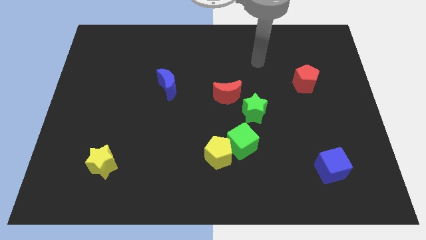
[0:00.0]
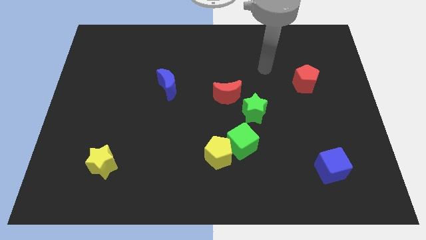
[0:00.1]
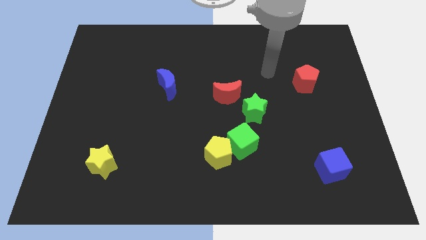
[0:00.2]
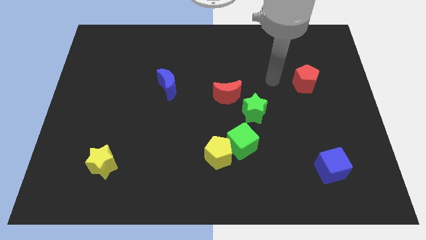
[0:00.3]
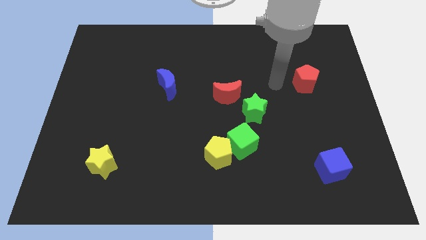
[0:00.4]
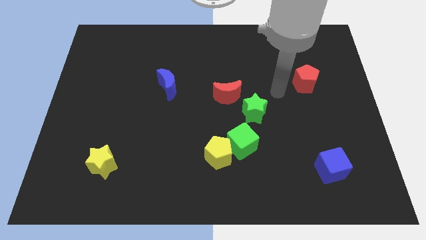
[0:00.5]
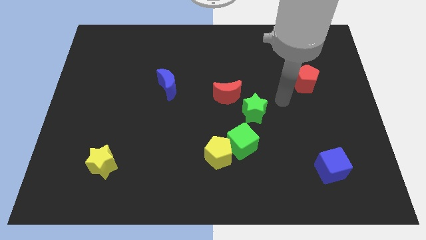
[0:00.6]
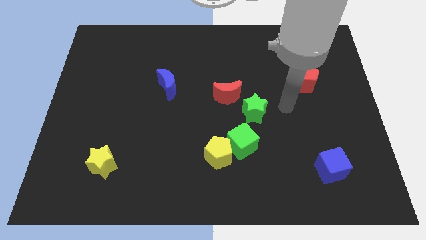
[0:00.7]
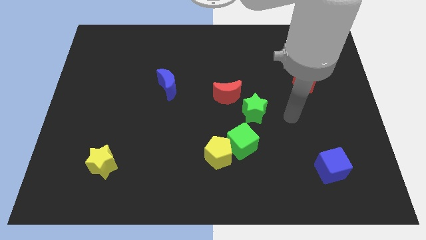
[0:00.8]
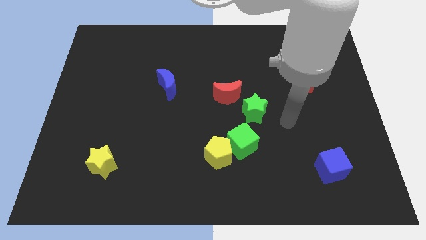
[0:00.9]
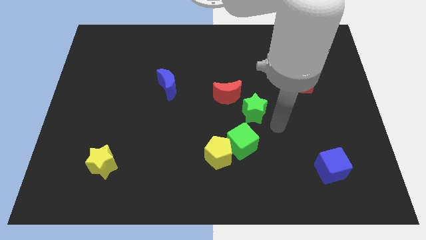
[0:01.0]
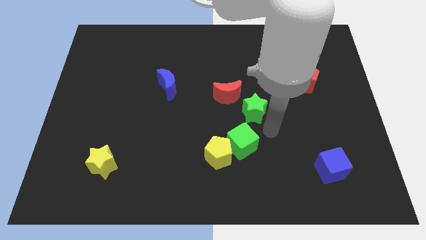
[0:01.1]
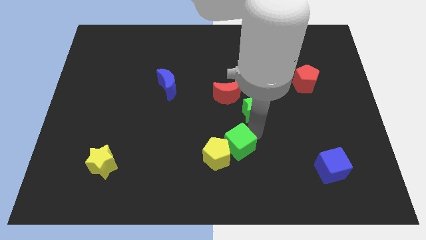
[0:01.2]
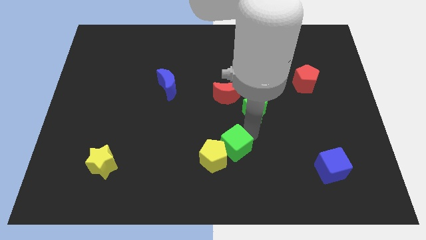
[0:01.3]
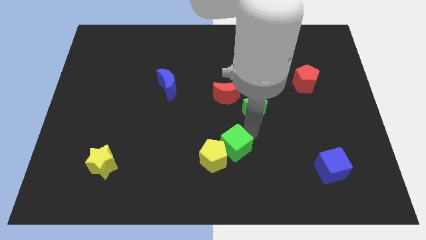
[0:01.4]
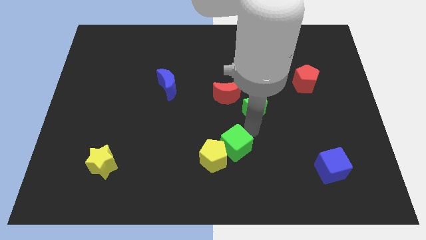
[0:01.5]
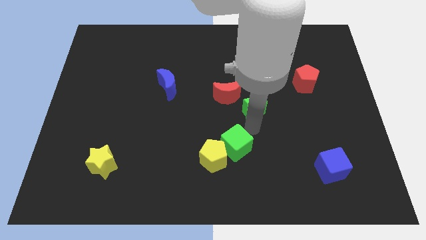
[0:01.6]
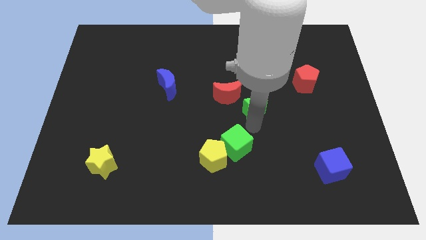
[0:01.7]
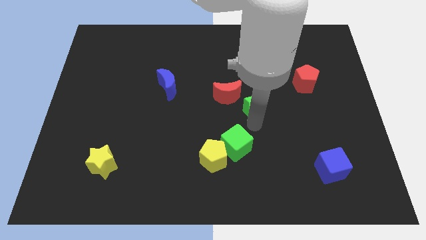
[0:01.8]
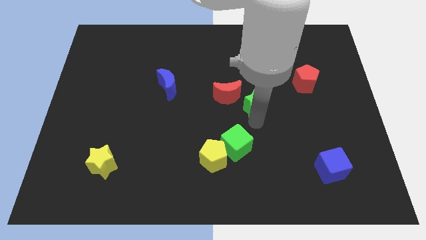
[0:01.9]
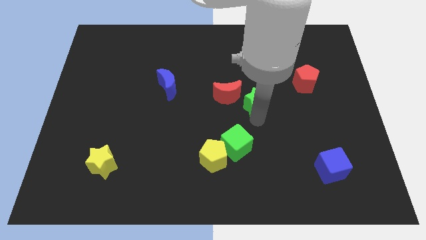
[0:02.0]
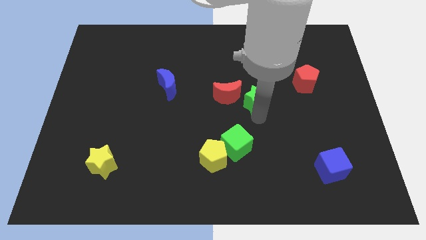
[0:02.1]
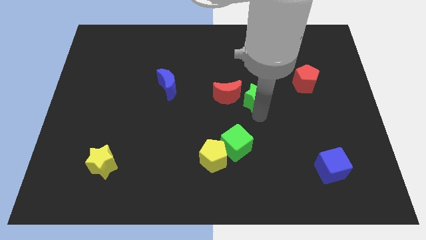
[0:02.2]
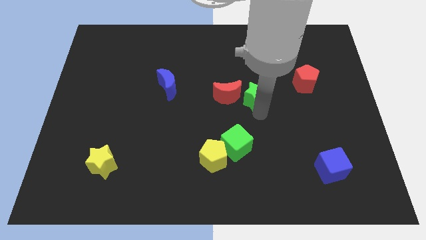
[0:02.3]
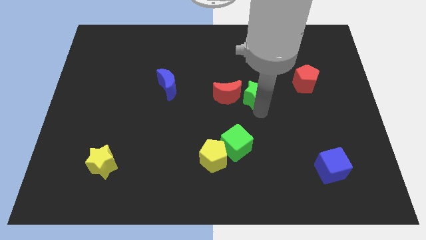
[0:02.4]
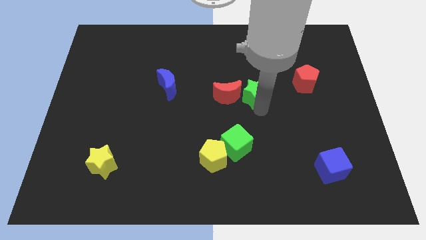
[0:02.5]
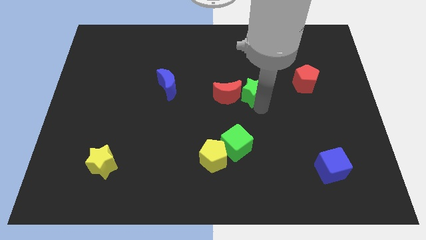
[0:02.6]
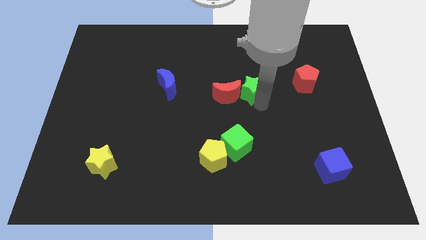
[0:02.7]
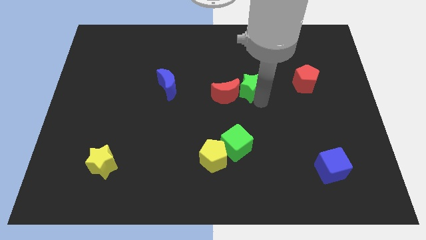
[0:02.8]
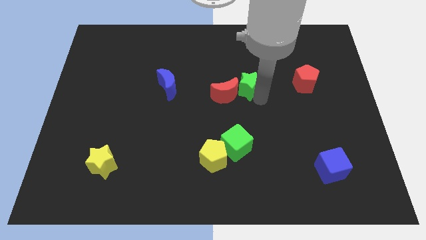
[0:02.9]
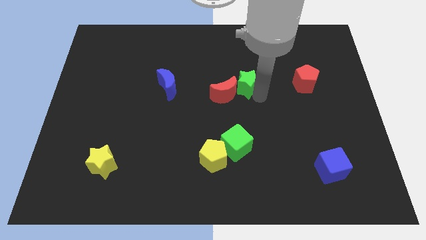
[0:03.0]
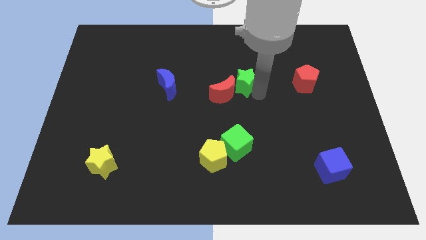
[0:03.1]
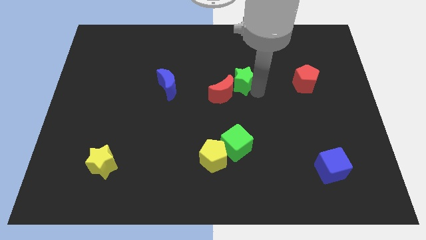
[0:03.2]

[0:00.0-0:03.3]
slightly push the green star up and to the left

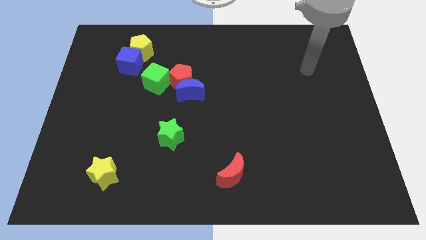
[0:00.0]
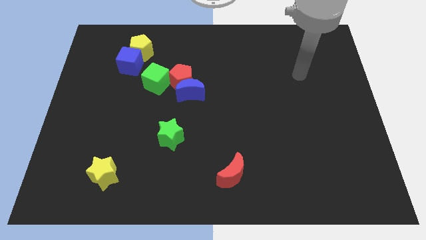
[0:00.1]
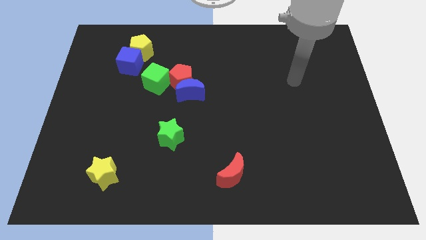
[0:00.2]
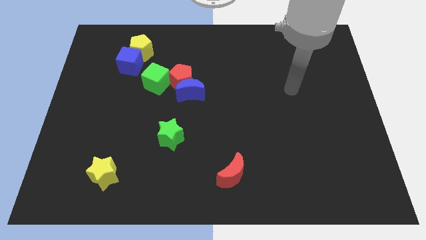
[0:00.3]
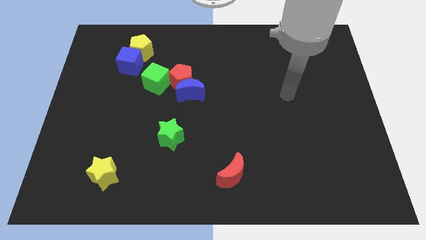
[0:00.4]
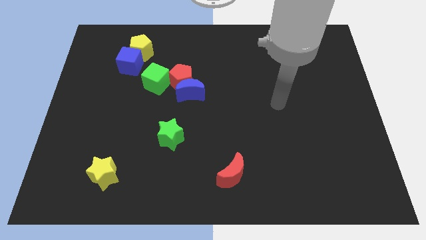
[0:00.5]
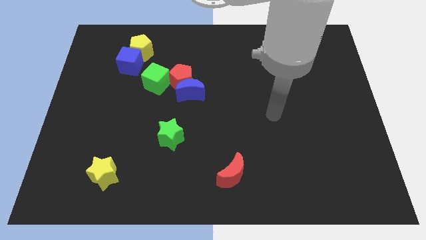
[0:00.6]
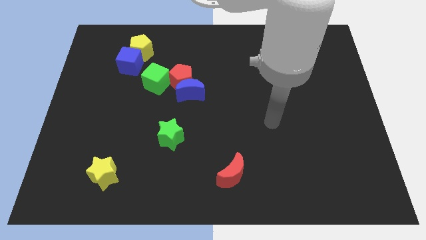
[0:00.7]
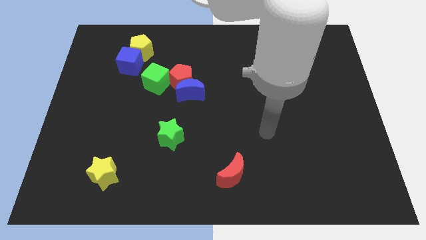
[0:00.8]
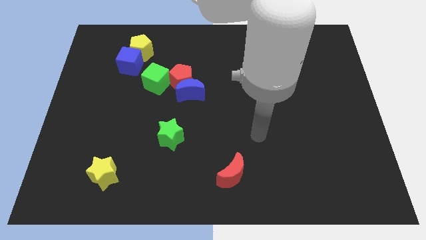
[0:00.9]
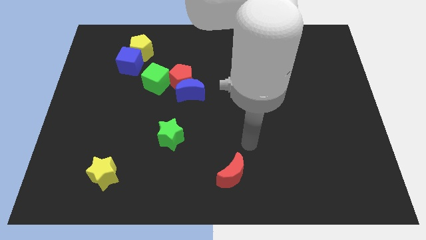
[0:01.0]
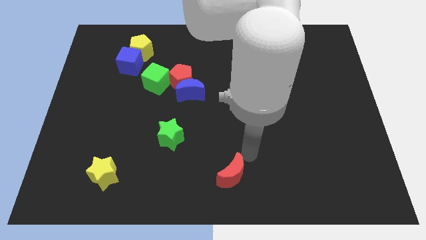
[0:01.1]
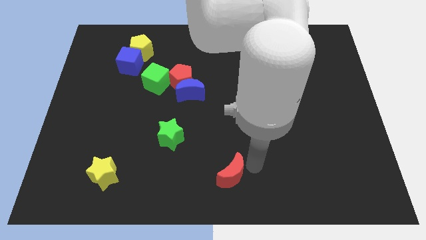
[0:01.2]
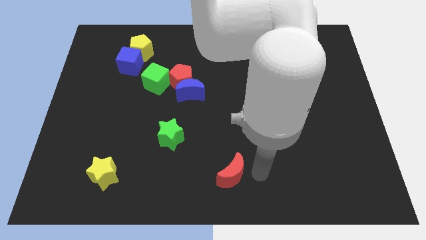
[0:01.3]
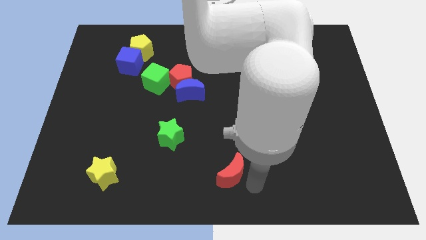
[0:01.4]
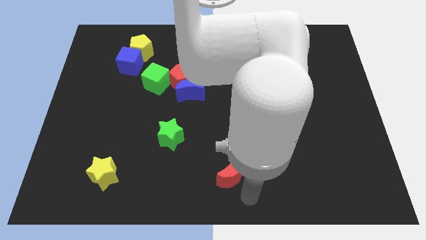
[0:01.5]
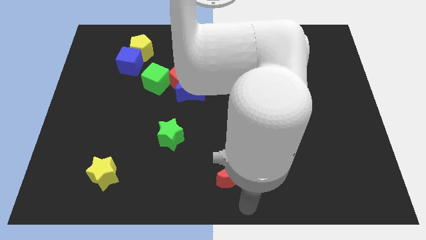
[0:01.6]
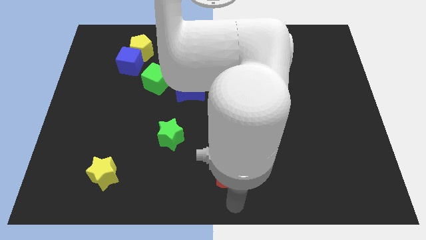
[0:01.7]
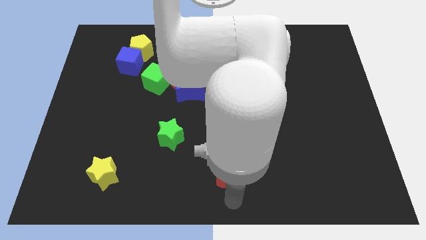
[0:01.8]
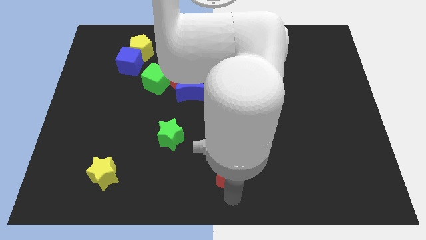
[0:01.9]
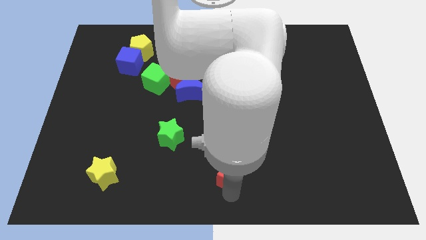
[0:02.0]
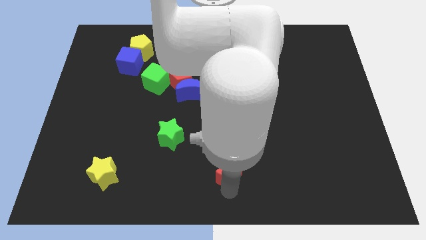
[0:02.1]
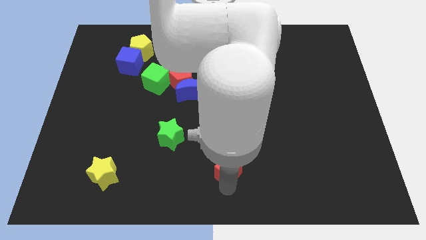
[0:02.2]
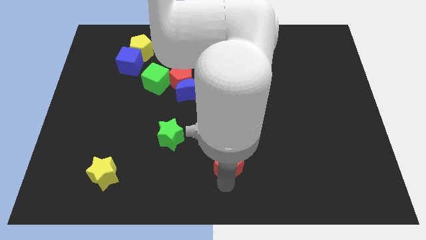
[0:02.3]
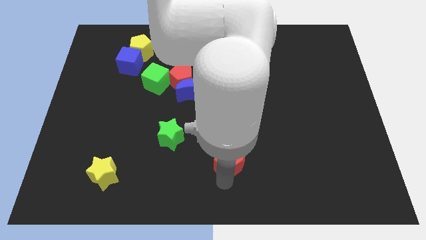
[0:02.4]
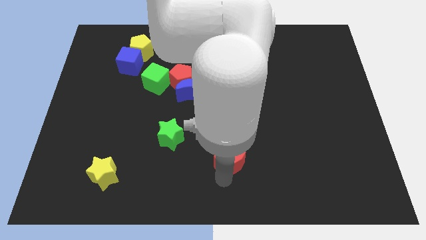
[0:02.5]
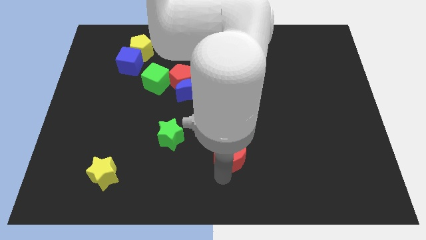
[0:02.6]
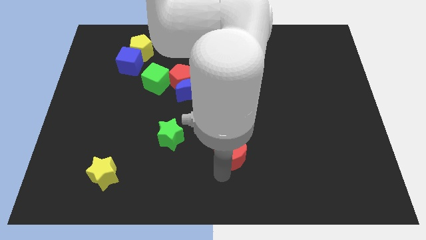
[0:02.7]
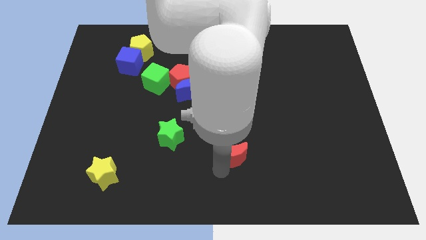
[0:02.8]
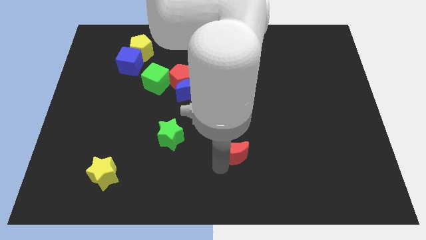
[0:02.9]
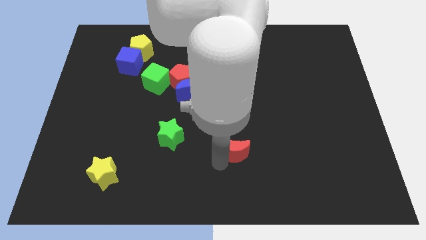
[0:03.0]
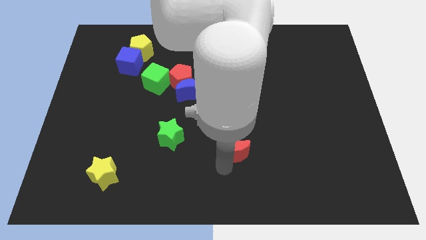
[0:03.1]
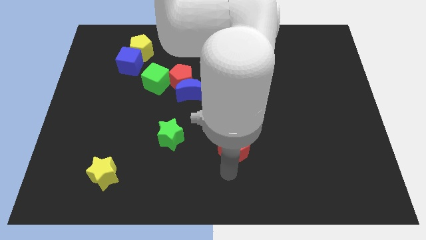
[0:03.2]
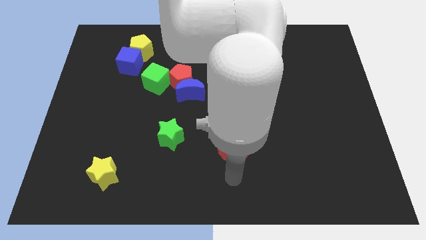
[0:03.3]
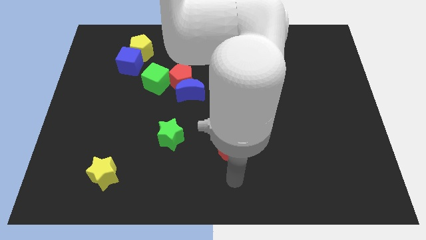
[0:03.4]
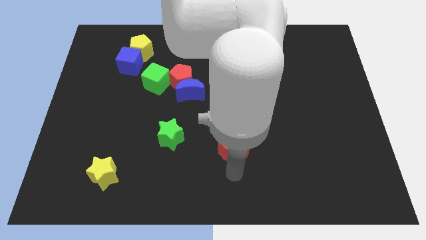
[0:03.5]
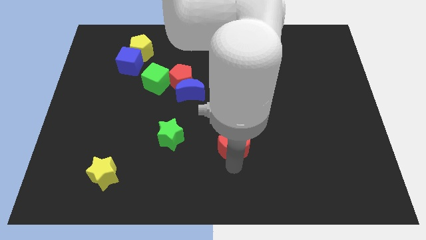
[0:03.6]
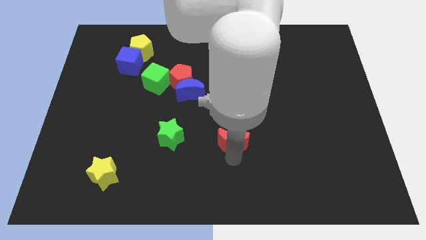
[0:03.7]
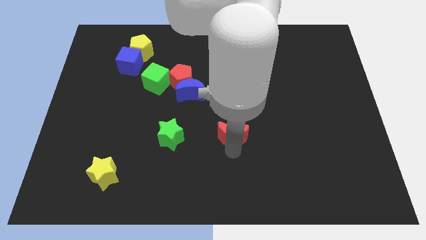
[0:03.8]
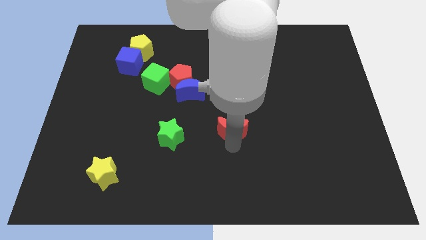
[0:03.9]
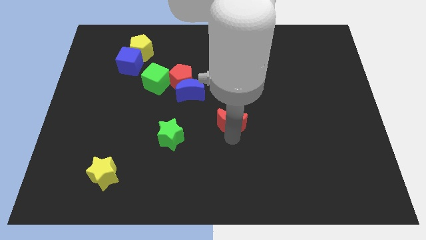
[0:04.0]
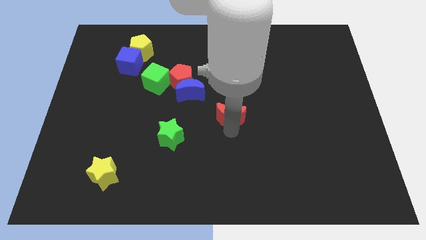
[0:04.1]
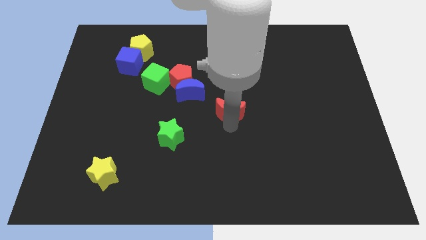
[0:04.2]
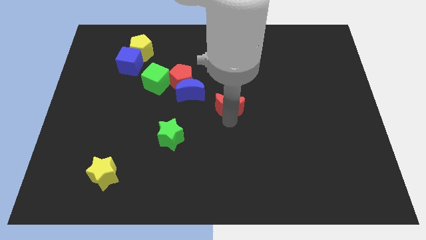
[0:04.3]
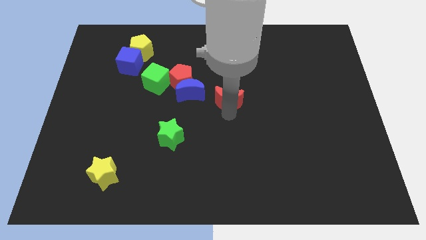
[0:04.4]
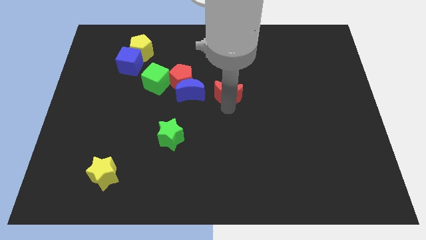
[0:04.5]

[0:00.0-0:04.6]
move the red moon up
